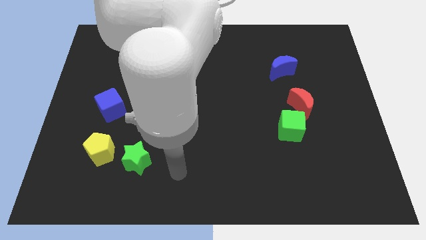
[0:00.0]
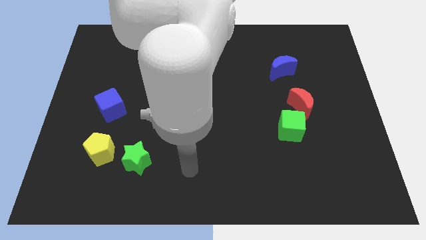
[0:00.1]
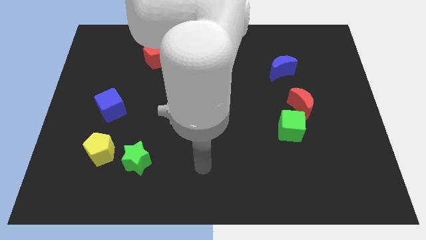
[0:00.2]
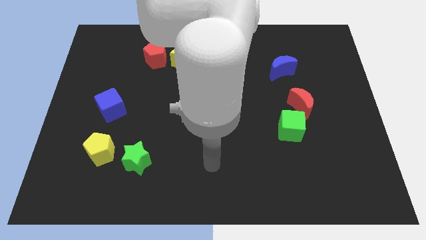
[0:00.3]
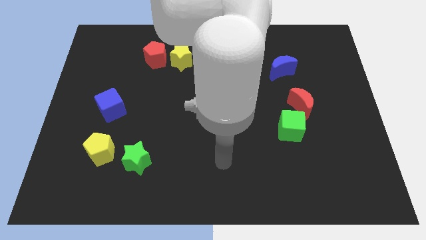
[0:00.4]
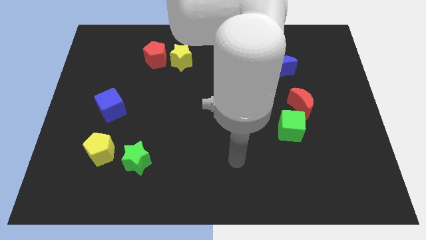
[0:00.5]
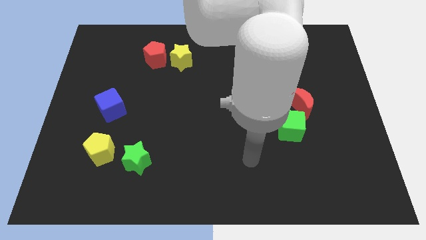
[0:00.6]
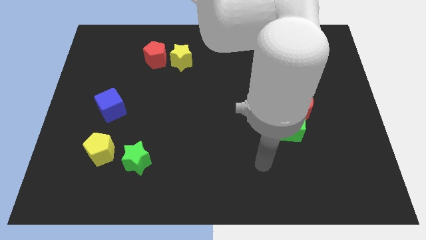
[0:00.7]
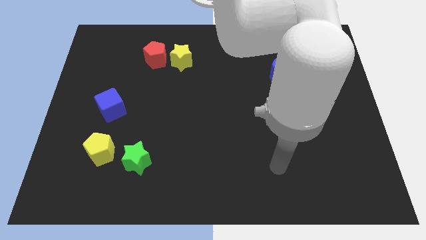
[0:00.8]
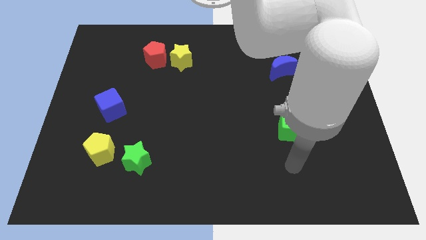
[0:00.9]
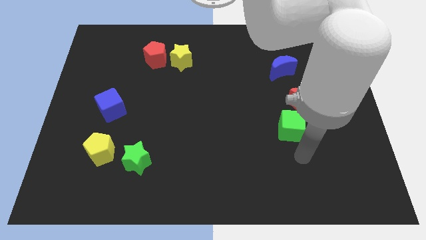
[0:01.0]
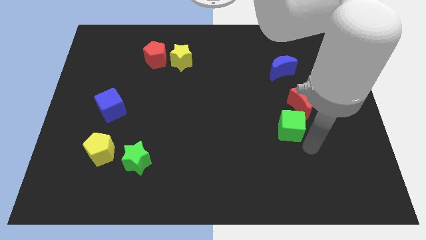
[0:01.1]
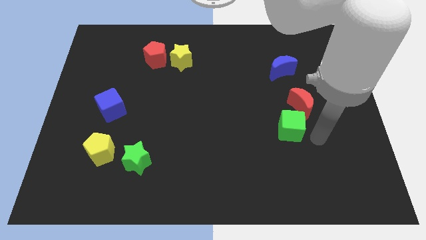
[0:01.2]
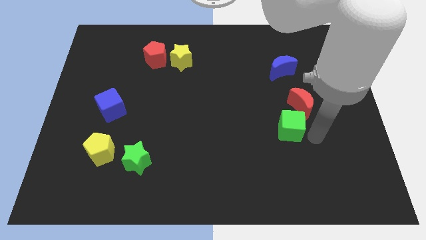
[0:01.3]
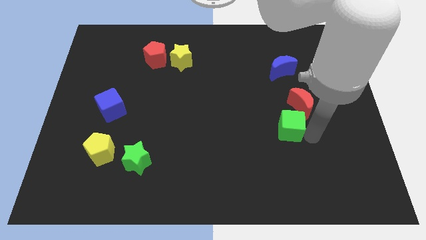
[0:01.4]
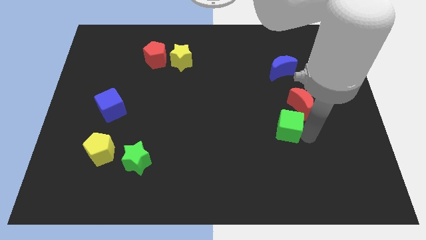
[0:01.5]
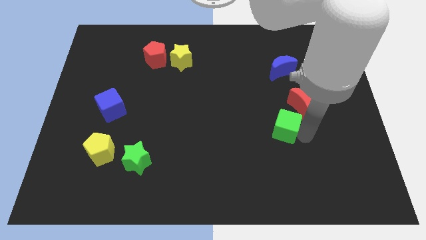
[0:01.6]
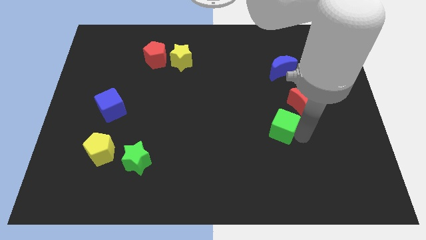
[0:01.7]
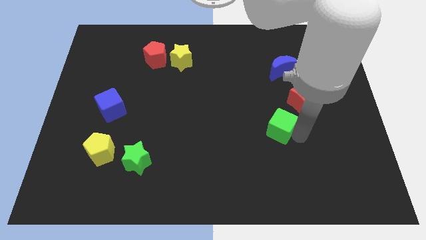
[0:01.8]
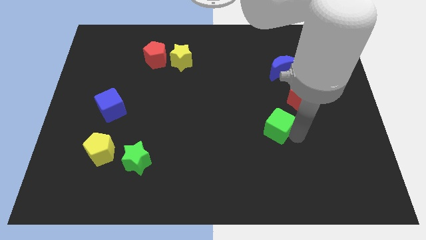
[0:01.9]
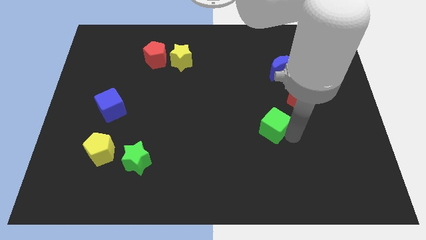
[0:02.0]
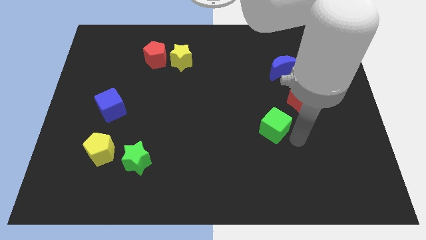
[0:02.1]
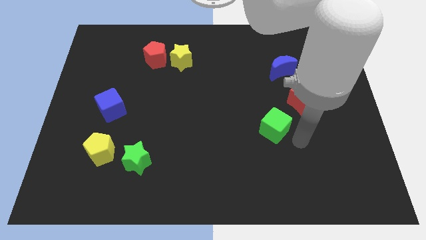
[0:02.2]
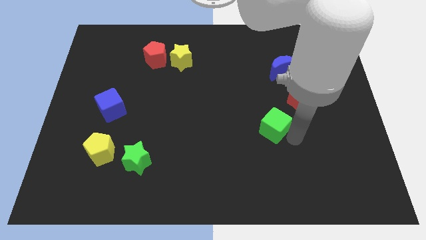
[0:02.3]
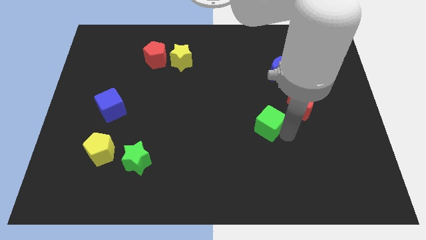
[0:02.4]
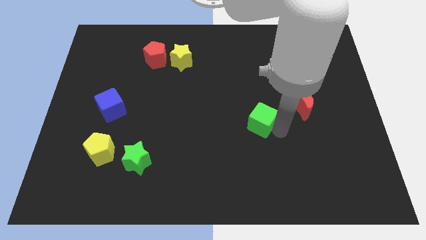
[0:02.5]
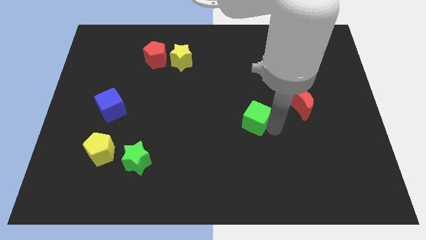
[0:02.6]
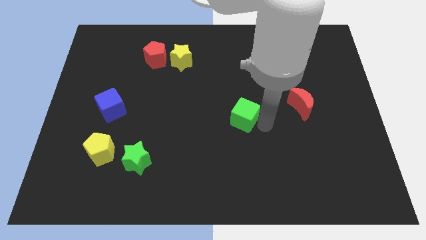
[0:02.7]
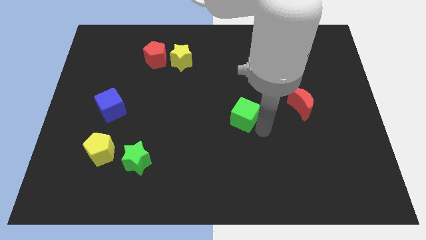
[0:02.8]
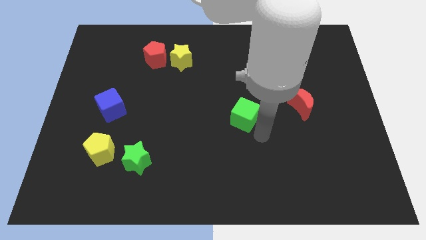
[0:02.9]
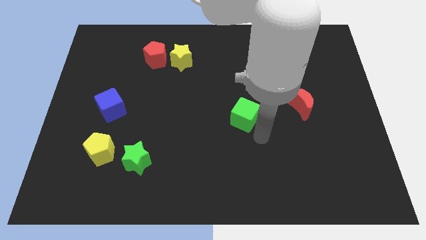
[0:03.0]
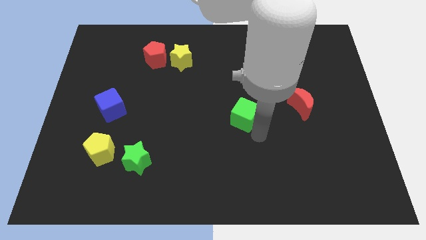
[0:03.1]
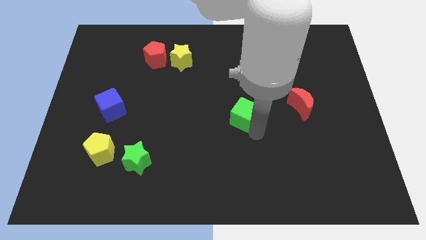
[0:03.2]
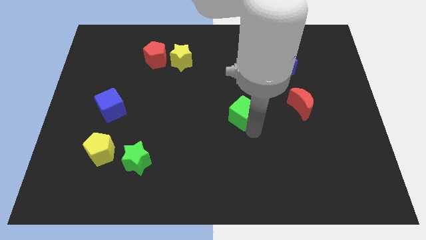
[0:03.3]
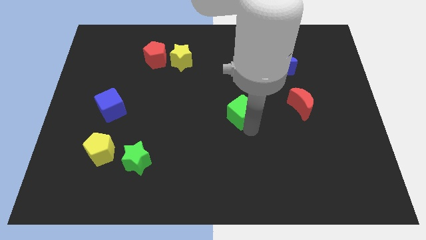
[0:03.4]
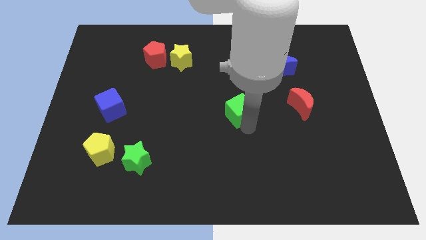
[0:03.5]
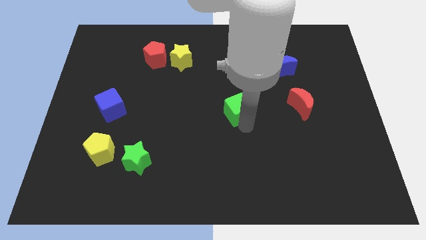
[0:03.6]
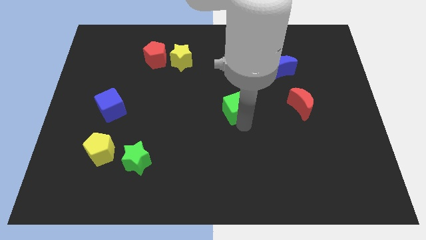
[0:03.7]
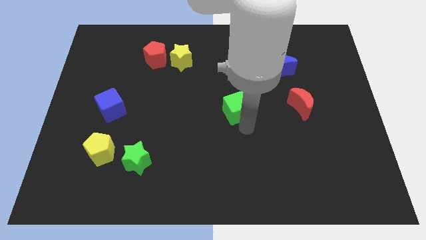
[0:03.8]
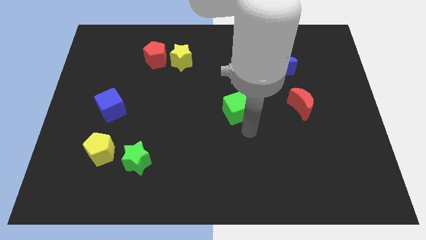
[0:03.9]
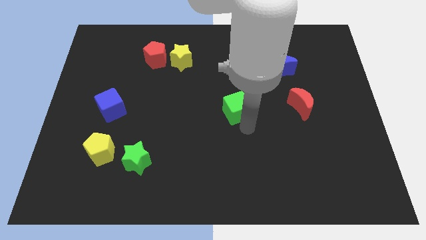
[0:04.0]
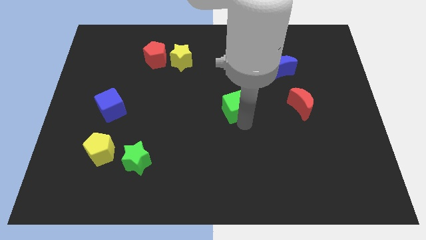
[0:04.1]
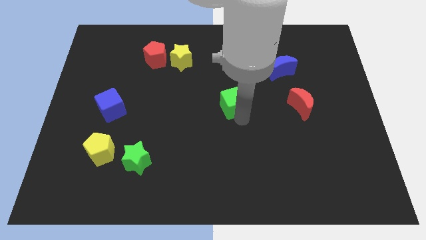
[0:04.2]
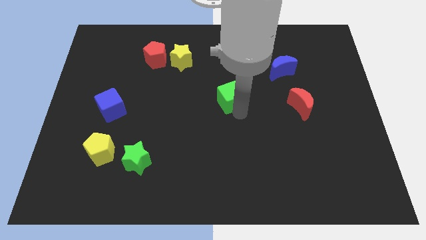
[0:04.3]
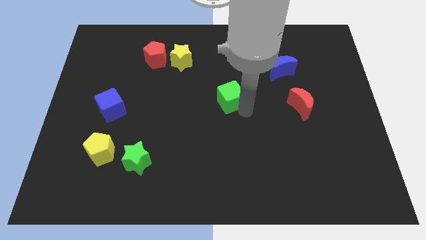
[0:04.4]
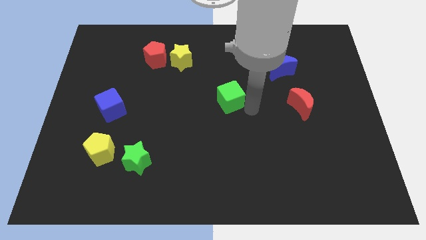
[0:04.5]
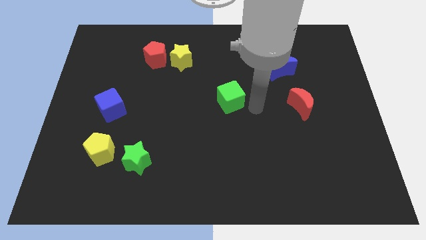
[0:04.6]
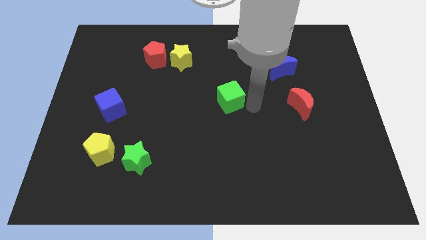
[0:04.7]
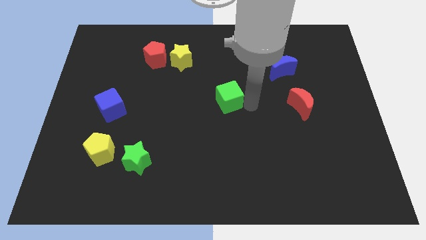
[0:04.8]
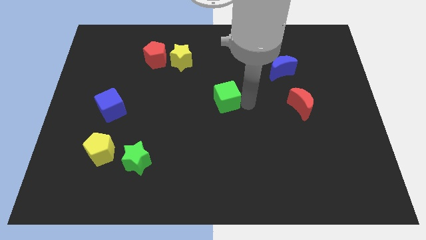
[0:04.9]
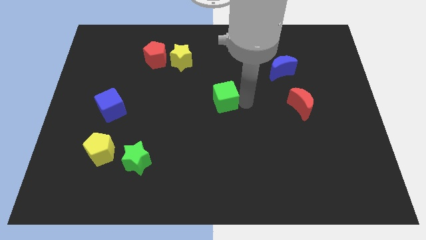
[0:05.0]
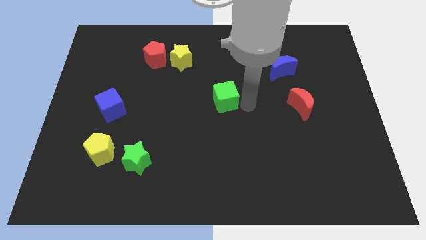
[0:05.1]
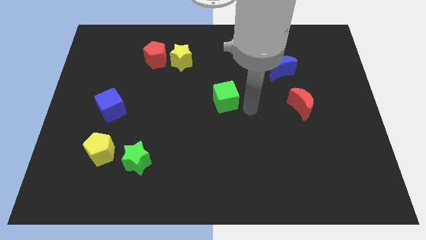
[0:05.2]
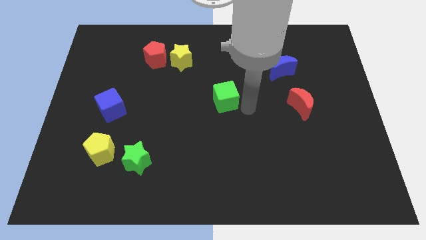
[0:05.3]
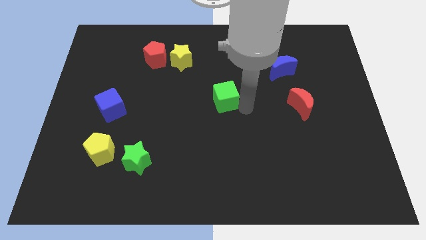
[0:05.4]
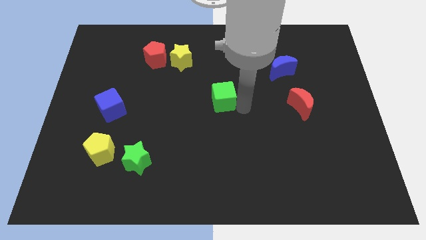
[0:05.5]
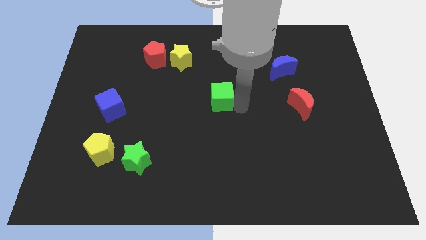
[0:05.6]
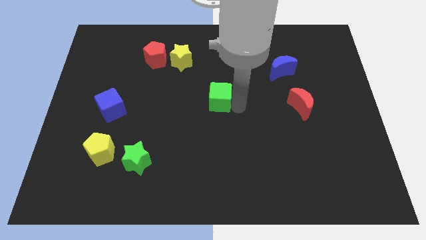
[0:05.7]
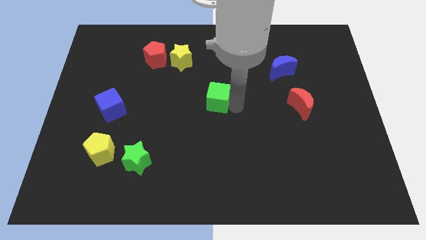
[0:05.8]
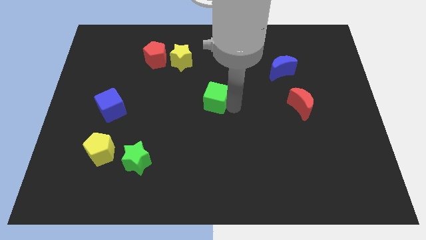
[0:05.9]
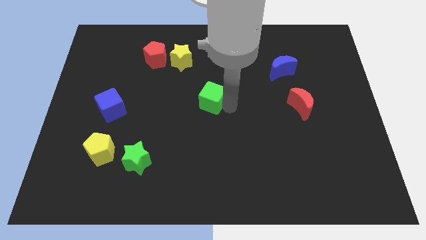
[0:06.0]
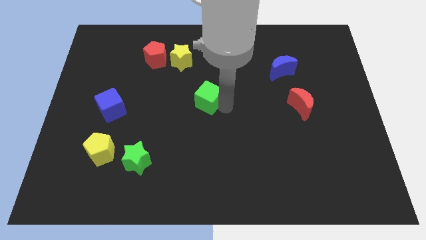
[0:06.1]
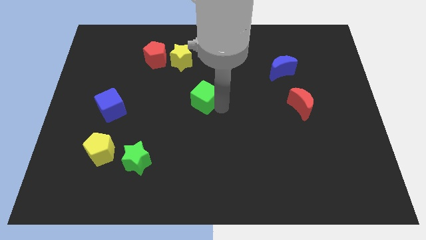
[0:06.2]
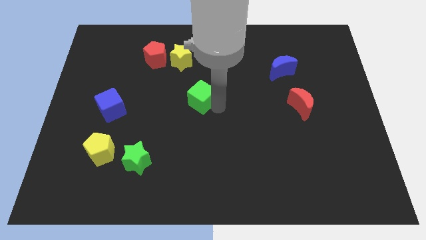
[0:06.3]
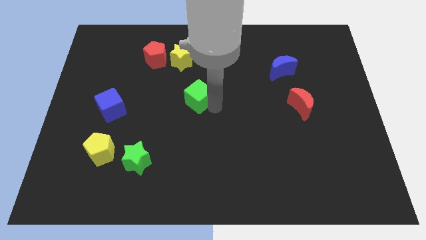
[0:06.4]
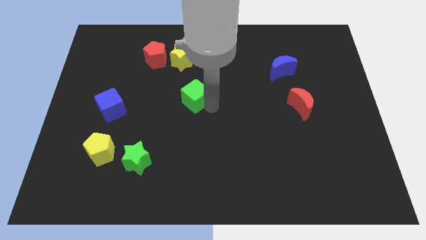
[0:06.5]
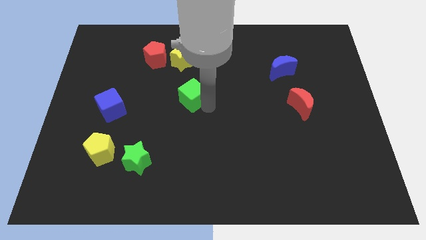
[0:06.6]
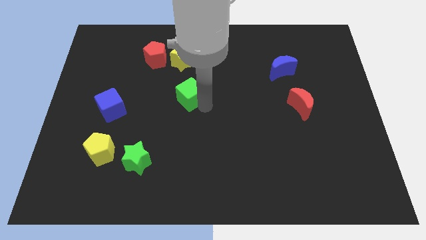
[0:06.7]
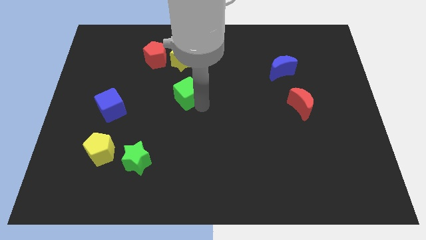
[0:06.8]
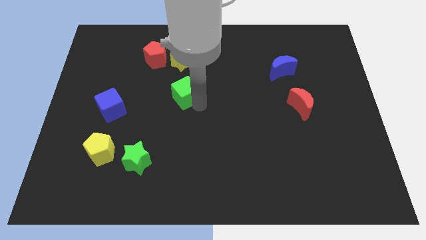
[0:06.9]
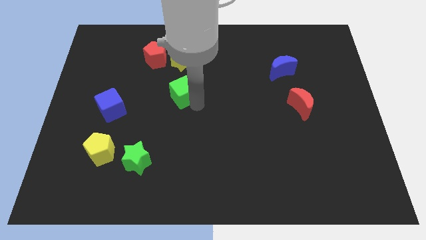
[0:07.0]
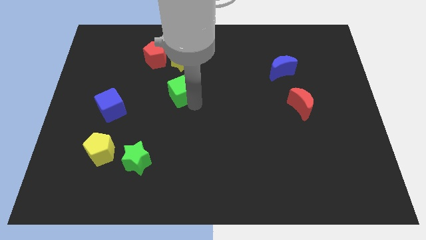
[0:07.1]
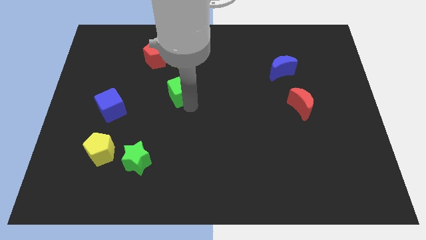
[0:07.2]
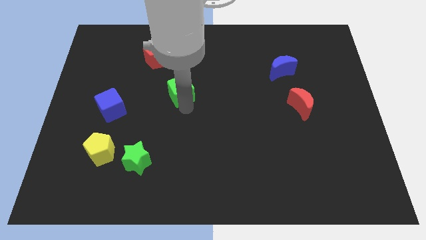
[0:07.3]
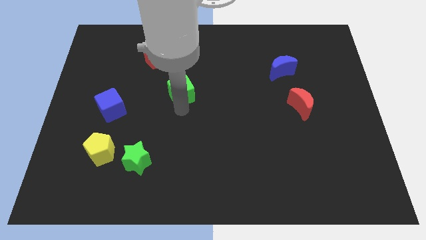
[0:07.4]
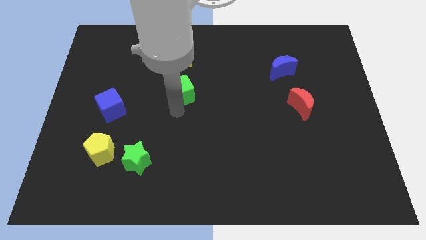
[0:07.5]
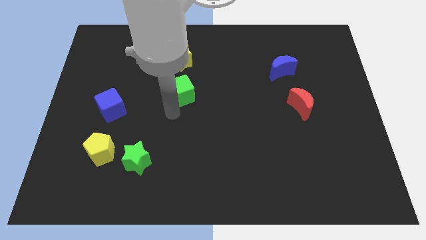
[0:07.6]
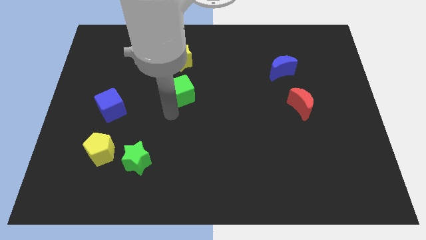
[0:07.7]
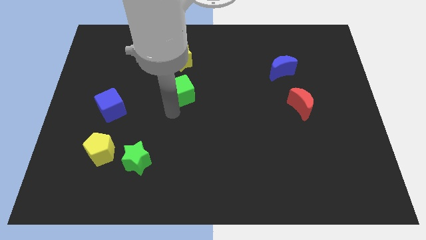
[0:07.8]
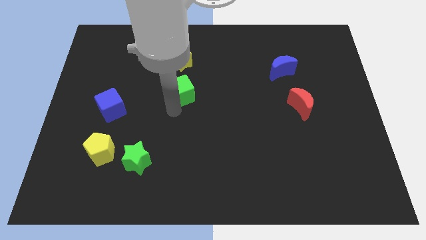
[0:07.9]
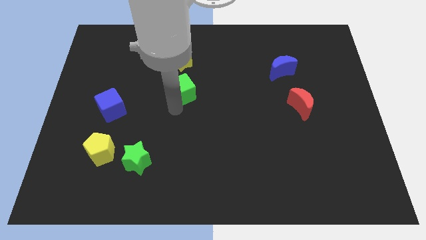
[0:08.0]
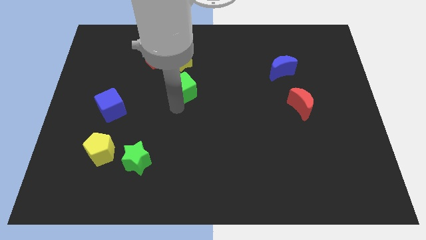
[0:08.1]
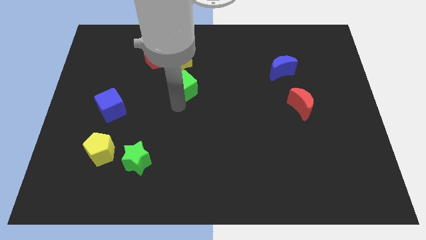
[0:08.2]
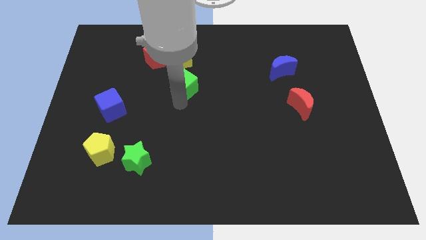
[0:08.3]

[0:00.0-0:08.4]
slide the green cube to the bottom right side of the red pentagon
